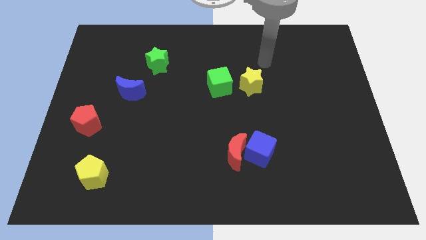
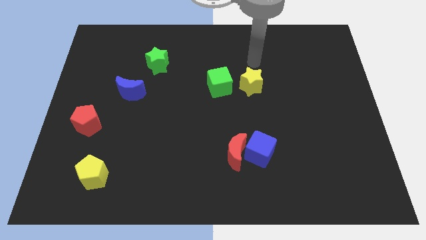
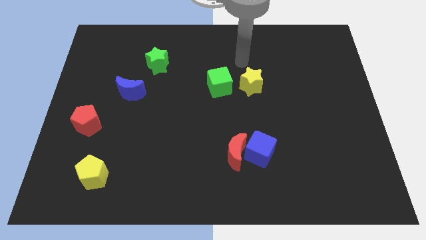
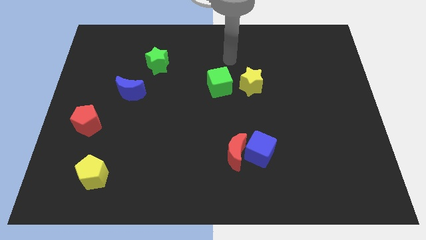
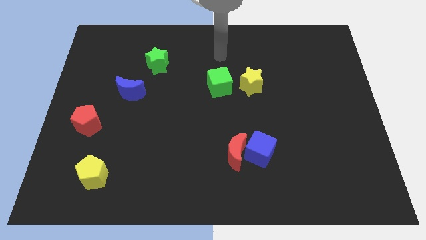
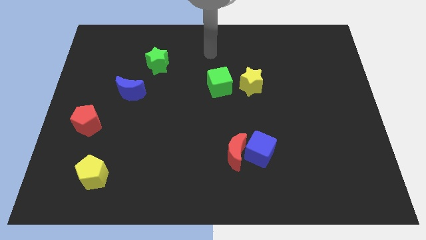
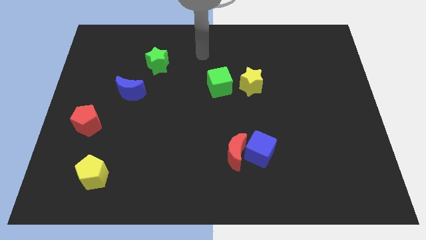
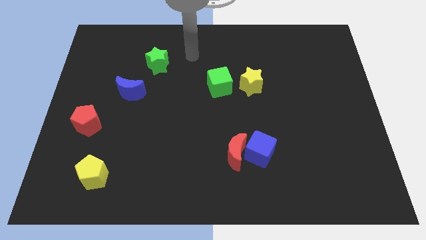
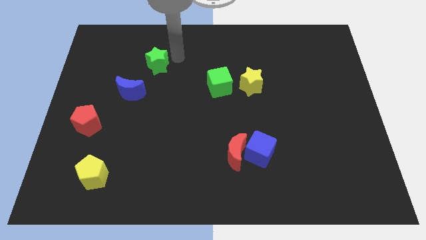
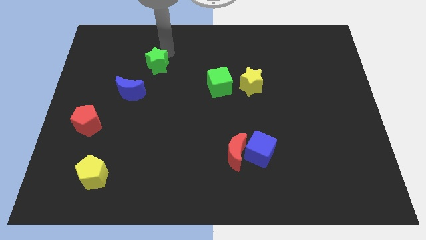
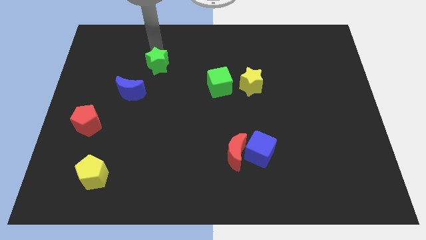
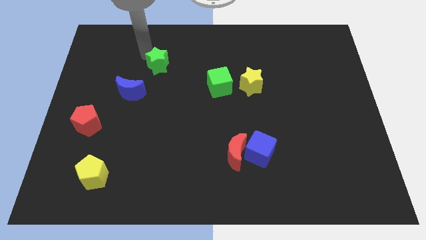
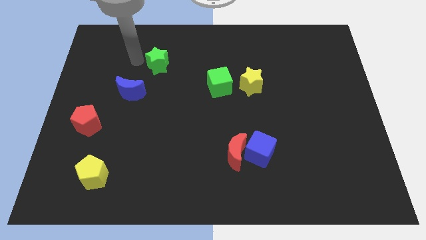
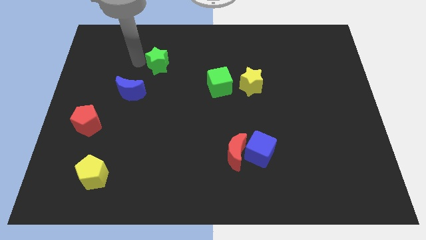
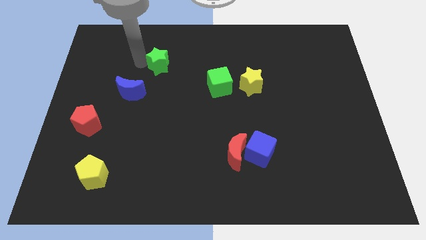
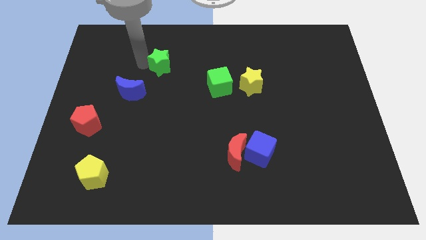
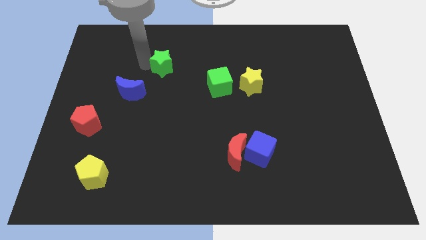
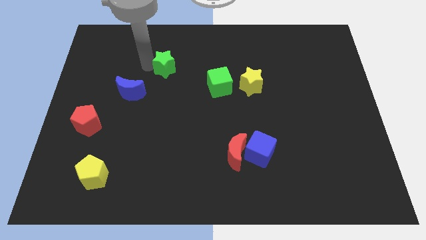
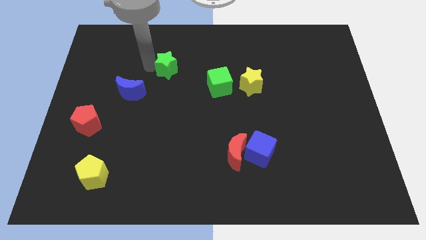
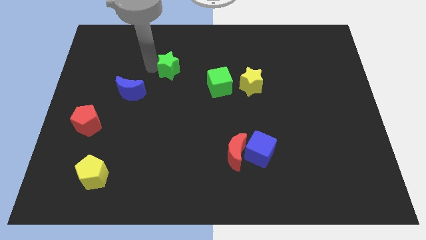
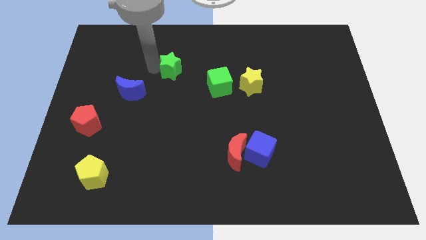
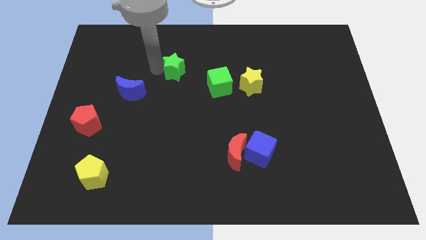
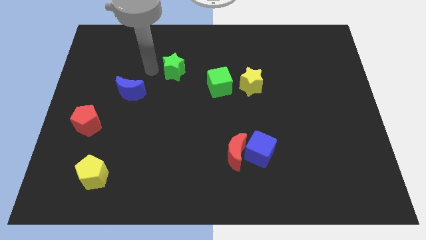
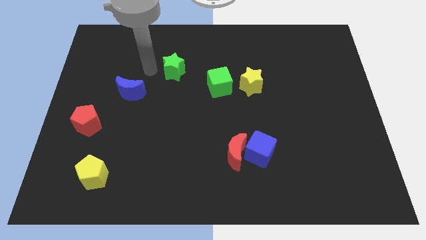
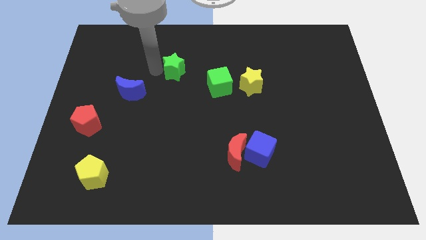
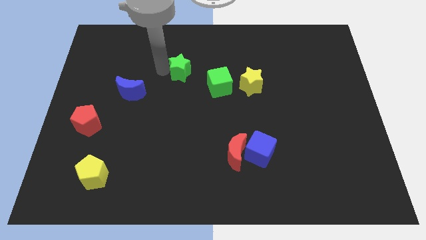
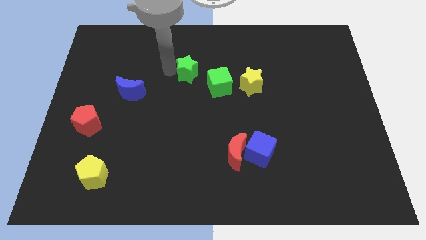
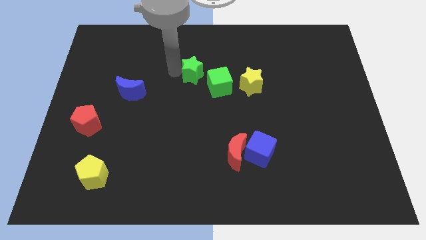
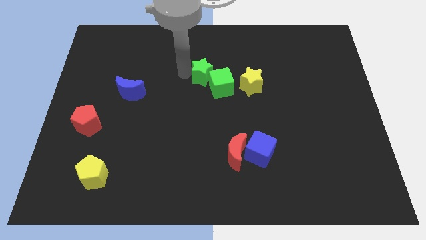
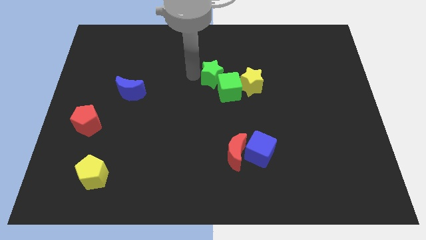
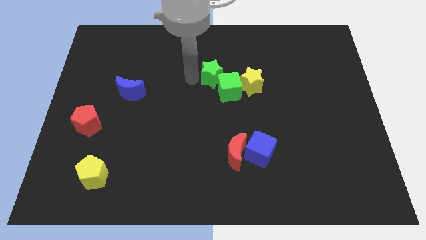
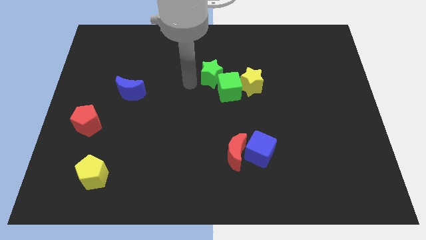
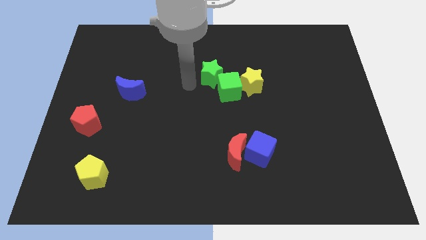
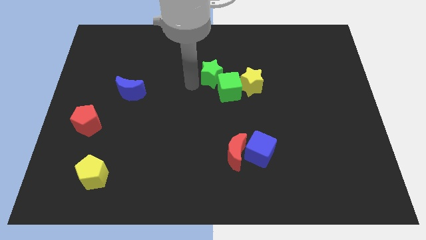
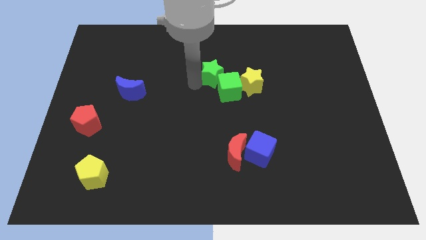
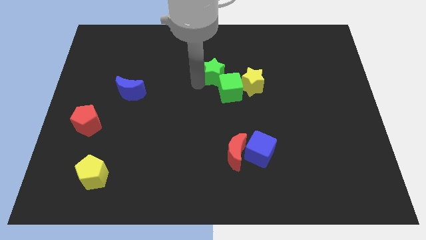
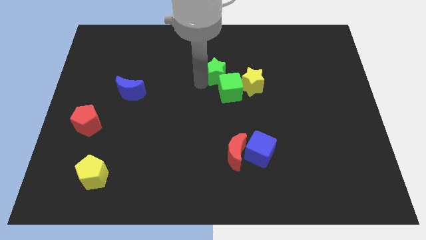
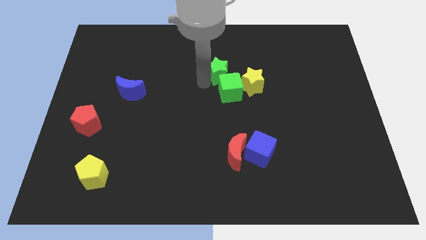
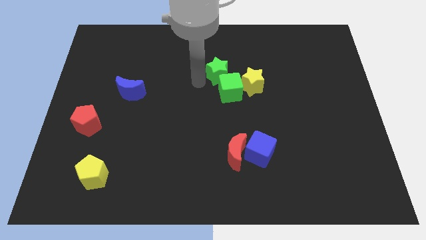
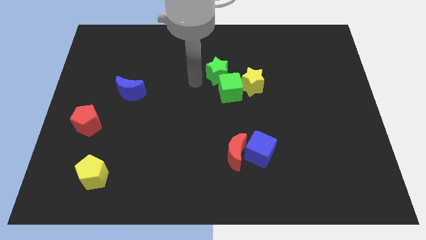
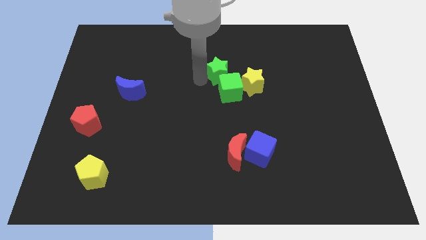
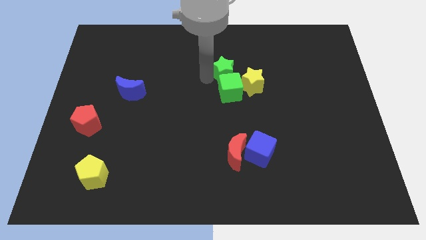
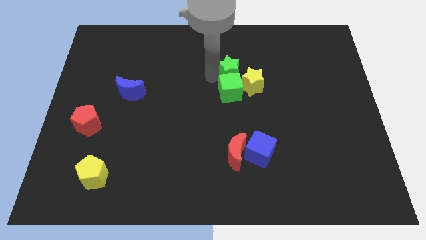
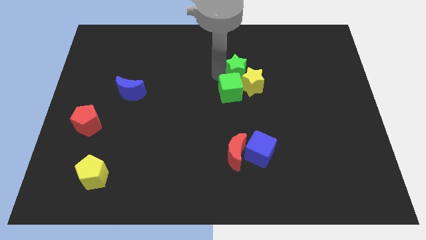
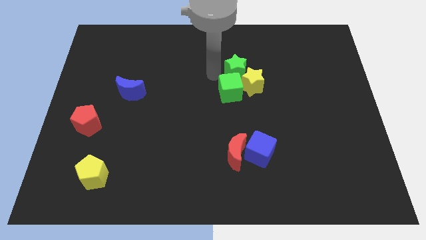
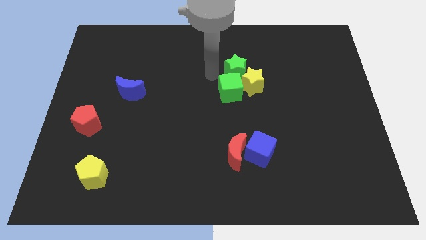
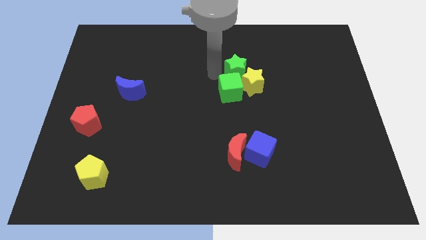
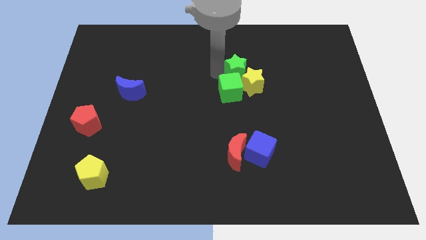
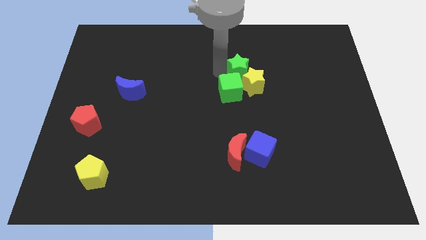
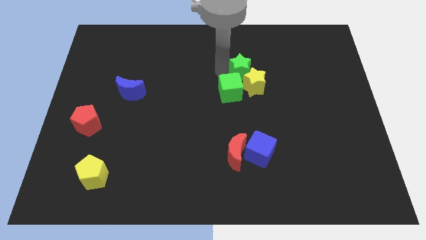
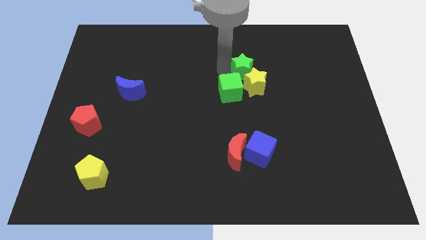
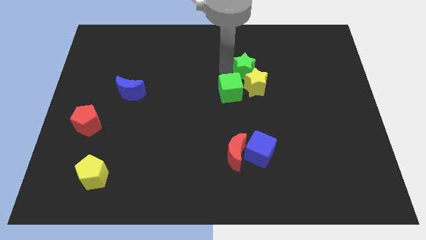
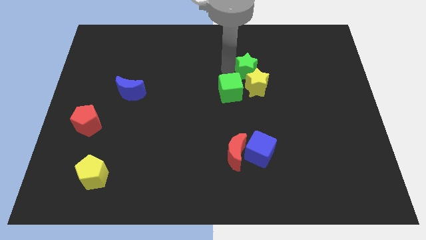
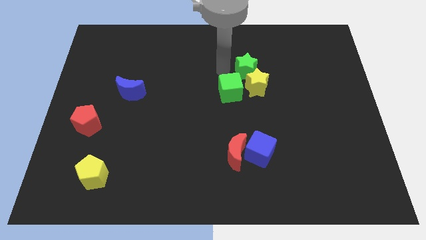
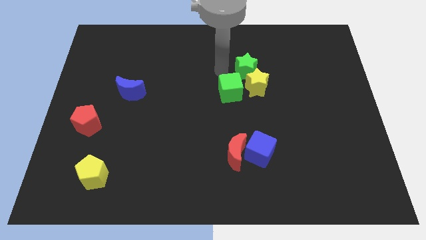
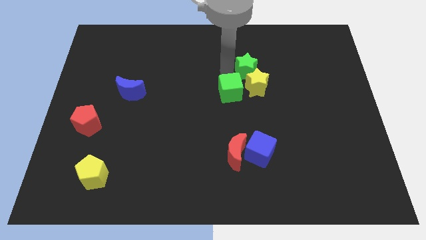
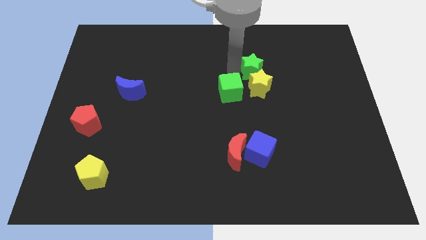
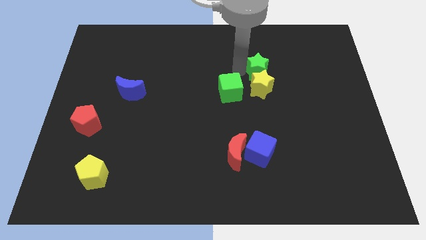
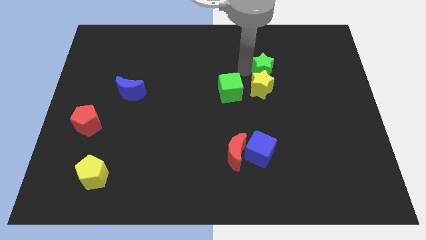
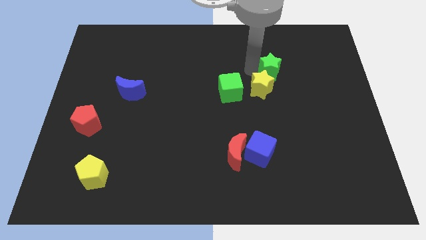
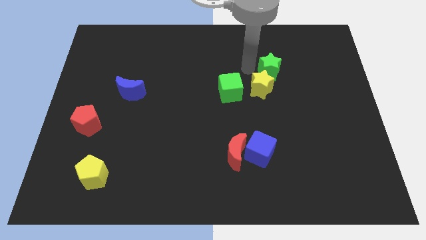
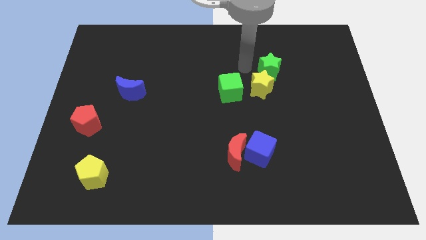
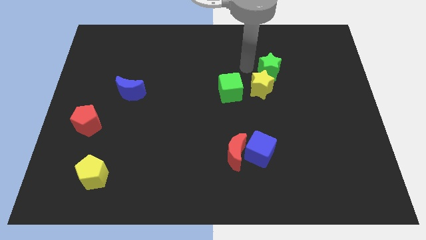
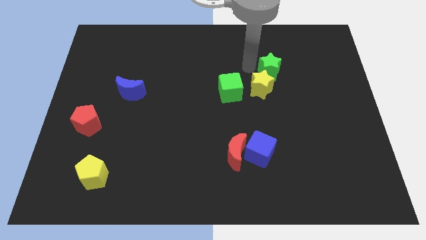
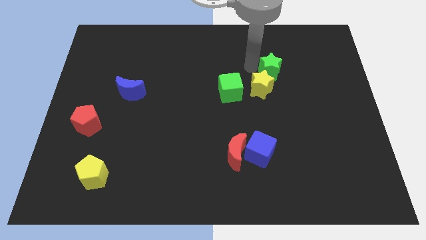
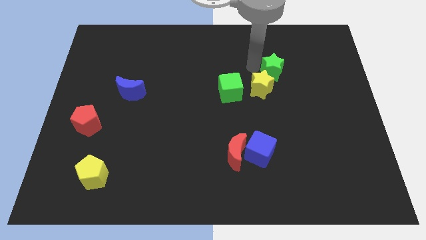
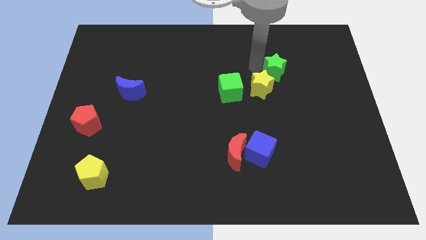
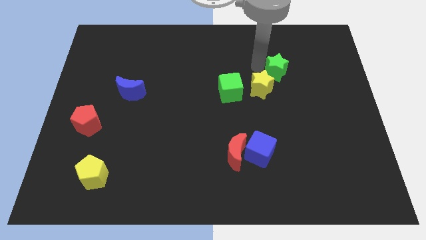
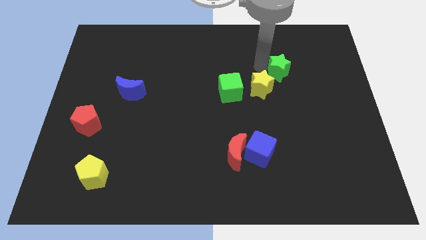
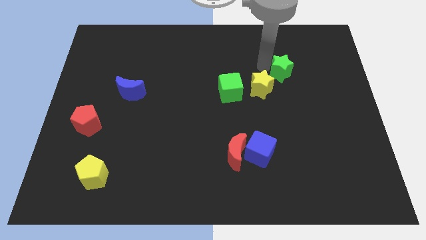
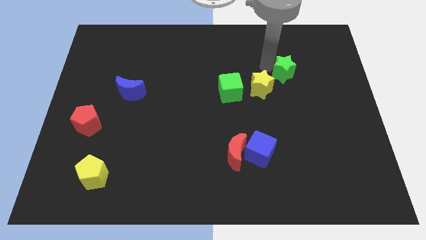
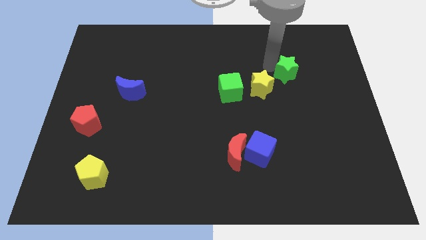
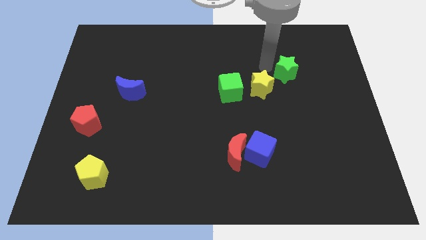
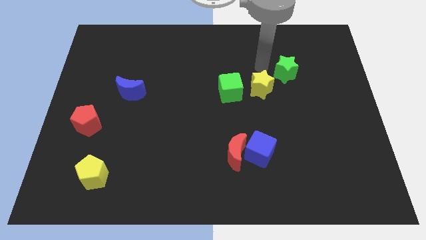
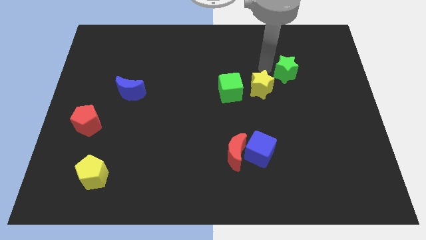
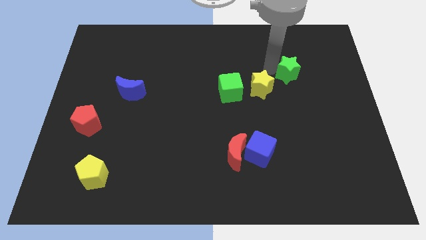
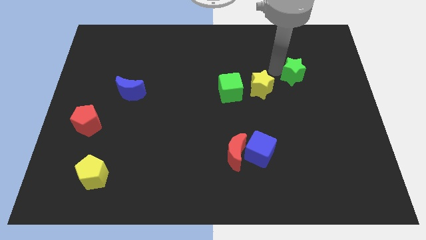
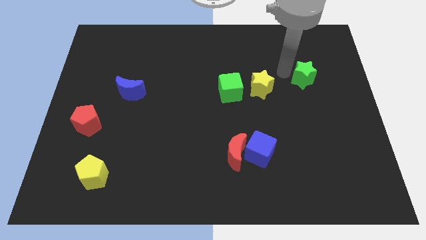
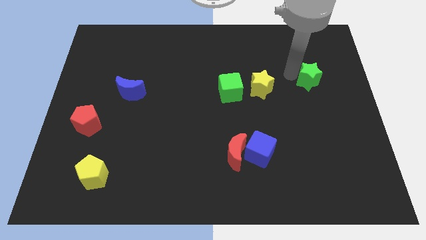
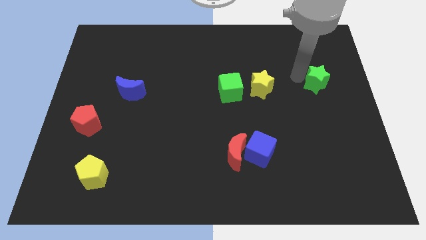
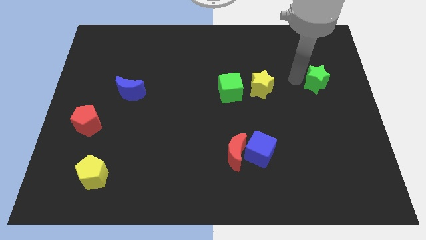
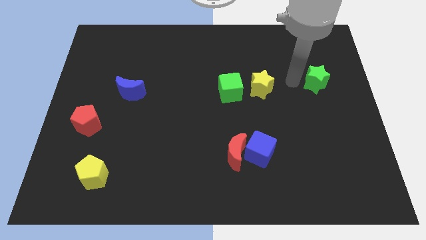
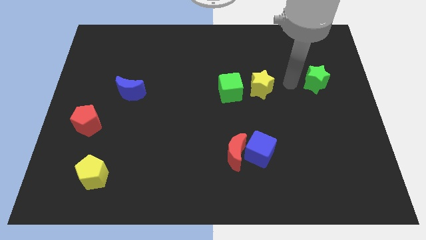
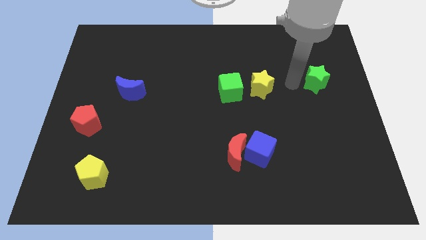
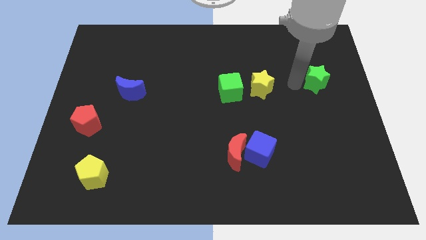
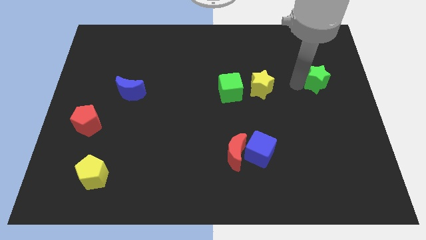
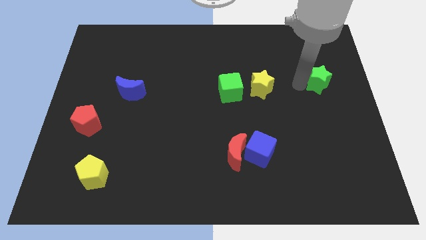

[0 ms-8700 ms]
put the green star to the center right
